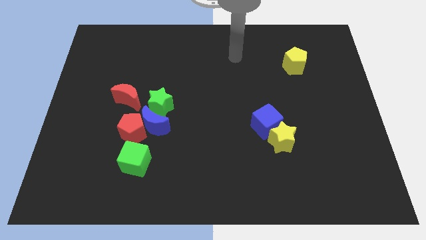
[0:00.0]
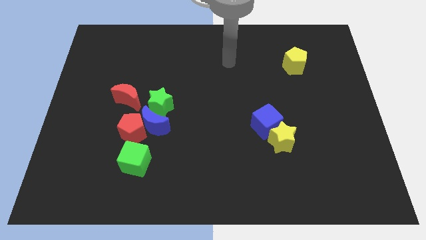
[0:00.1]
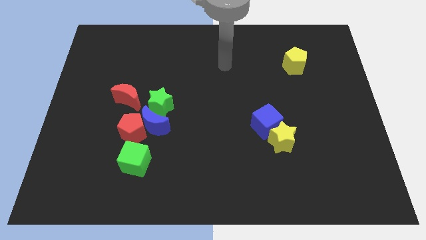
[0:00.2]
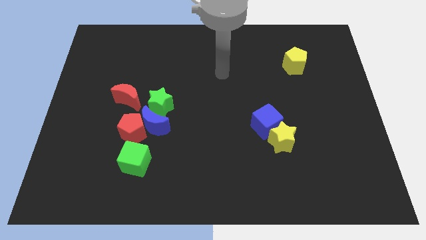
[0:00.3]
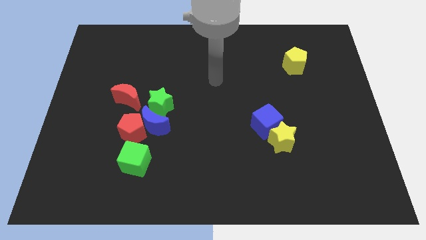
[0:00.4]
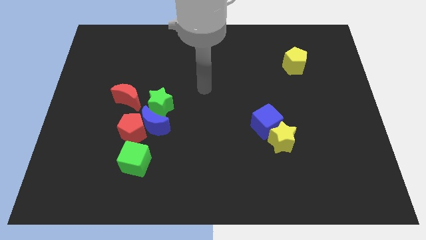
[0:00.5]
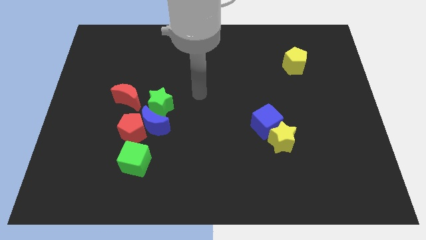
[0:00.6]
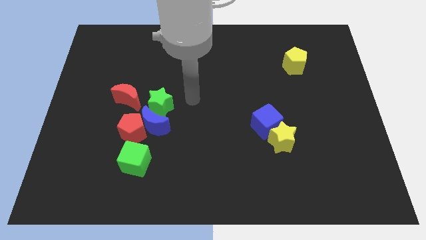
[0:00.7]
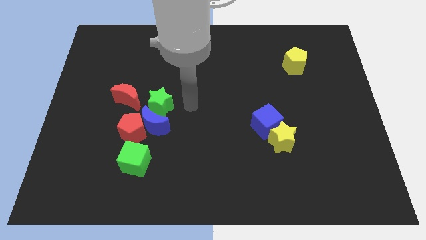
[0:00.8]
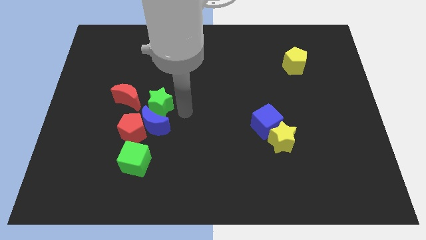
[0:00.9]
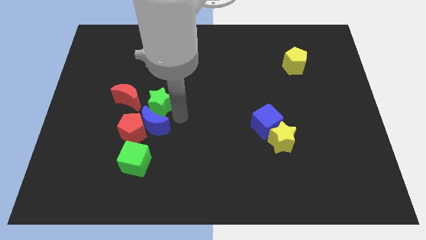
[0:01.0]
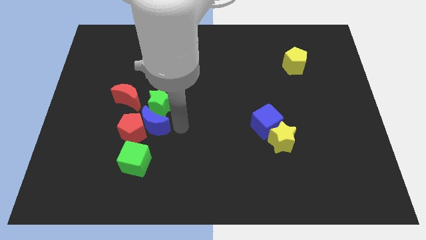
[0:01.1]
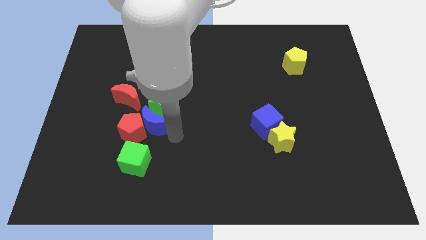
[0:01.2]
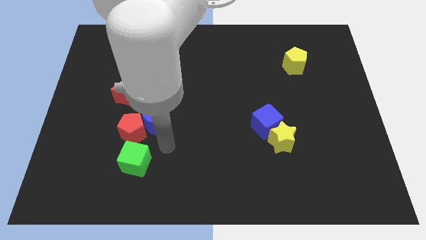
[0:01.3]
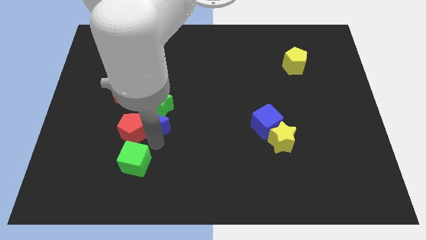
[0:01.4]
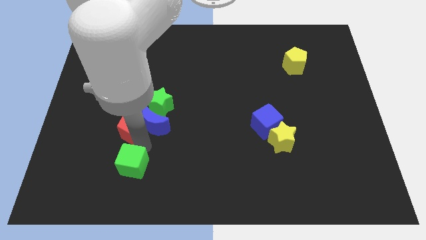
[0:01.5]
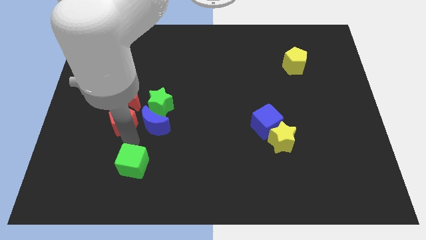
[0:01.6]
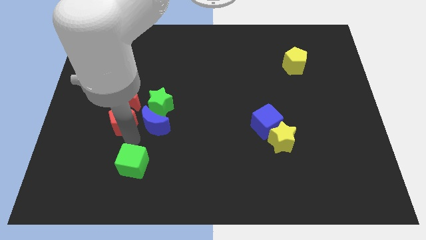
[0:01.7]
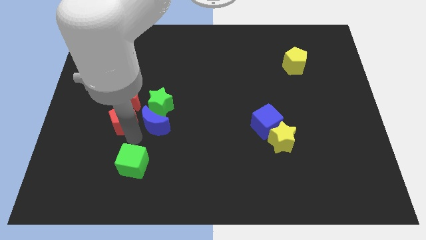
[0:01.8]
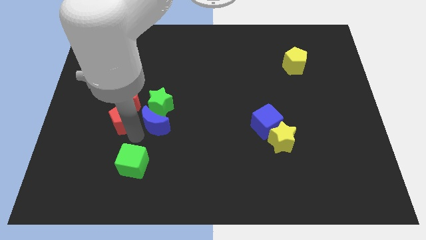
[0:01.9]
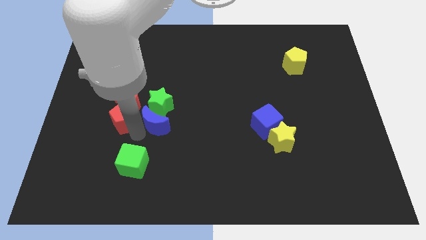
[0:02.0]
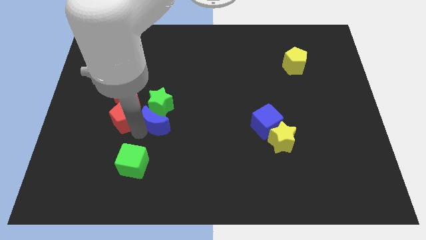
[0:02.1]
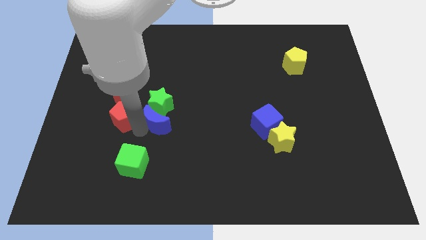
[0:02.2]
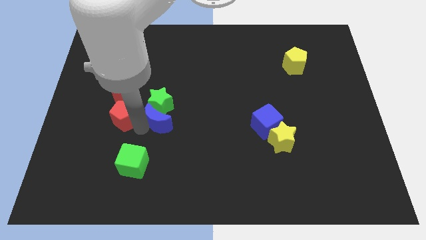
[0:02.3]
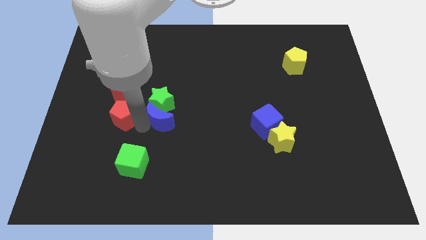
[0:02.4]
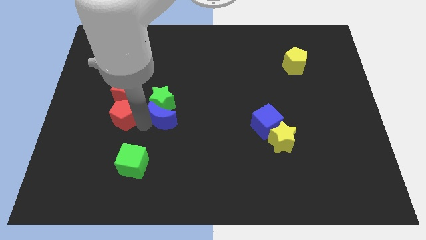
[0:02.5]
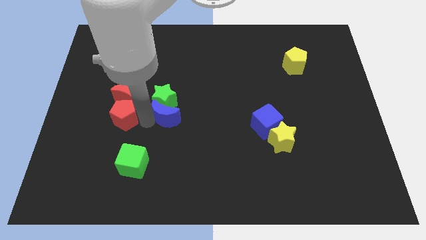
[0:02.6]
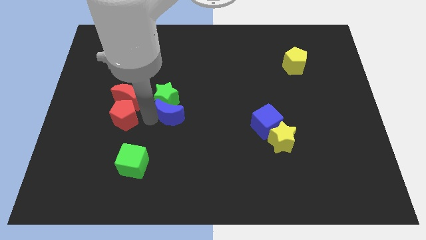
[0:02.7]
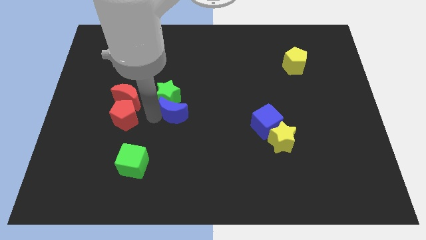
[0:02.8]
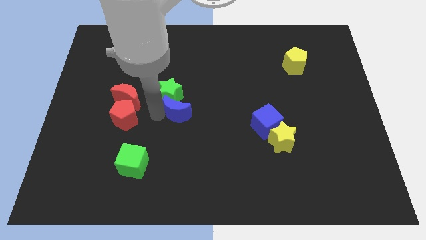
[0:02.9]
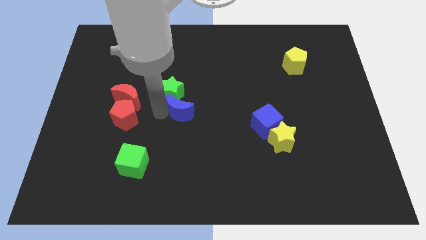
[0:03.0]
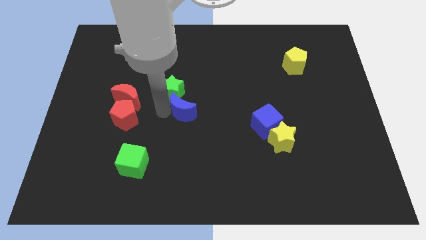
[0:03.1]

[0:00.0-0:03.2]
slightly push the blue moon upwards and to the right

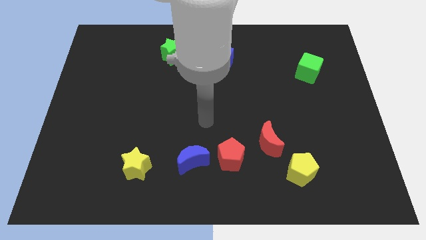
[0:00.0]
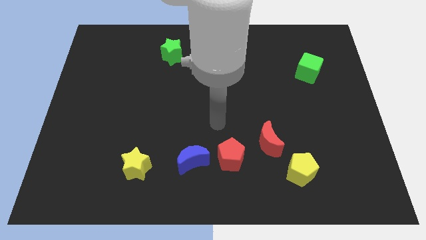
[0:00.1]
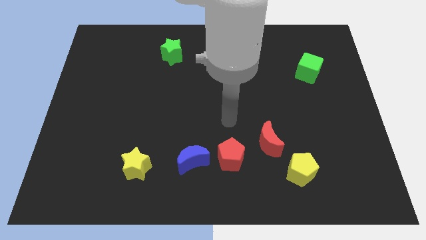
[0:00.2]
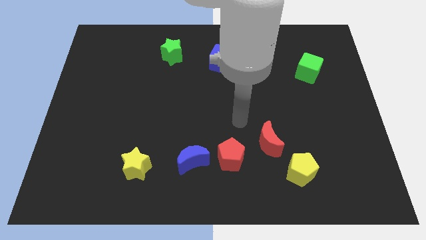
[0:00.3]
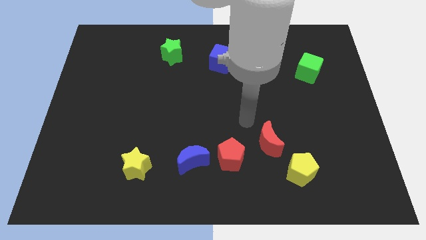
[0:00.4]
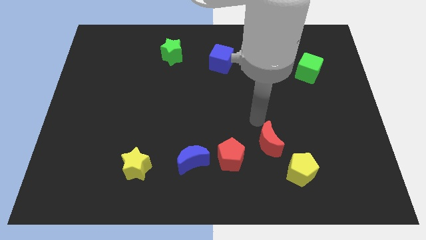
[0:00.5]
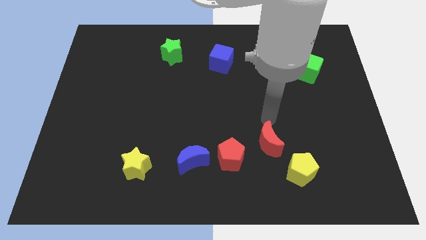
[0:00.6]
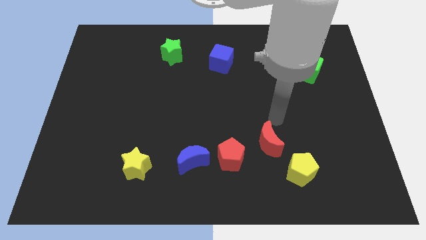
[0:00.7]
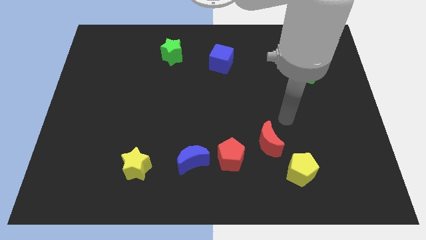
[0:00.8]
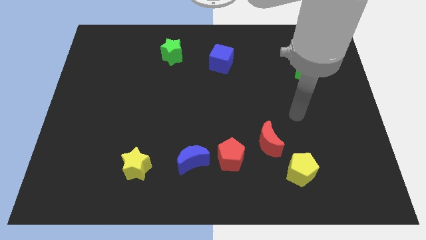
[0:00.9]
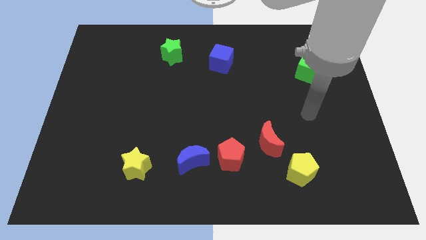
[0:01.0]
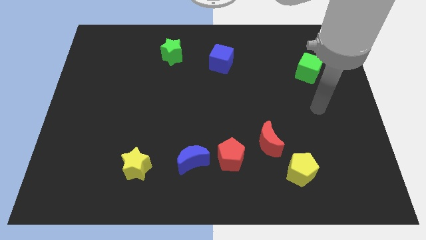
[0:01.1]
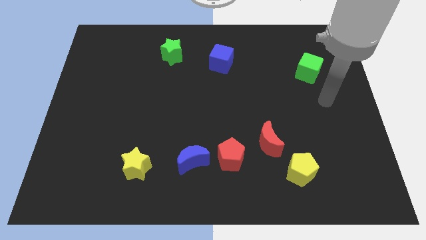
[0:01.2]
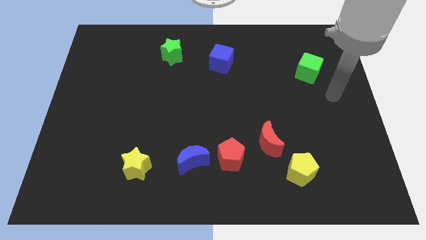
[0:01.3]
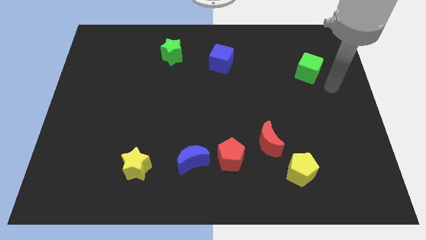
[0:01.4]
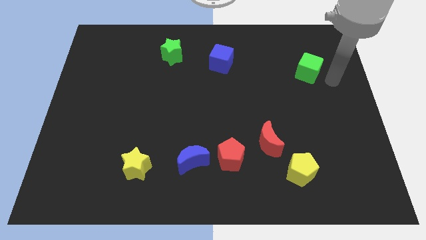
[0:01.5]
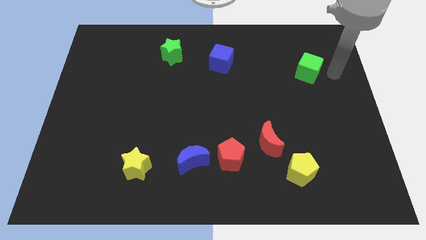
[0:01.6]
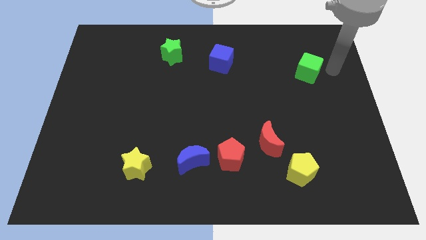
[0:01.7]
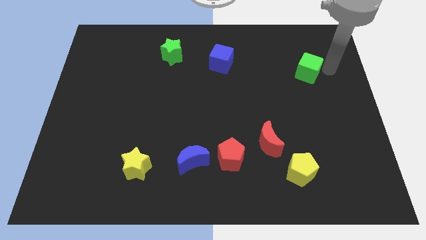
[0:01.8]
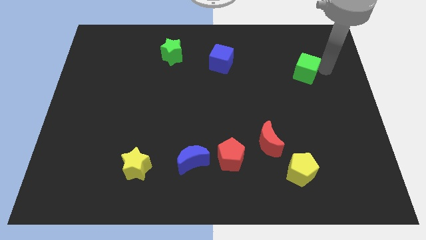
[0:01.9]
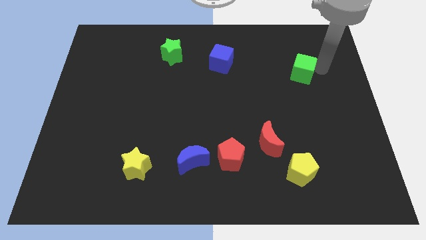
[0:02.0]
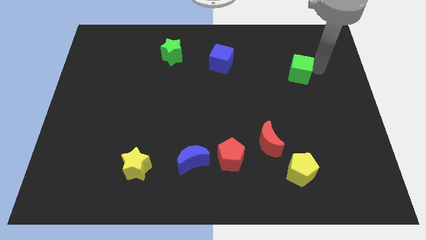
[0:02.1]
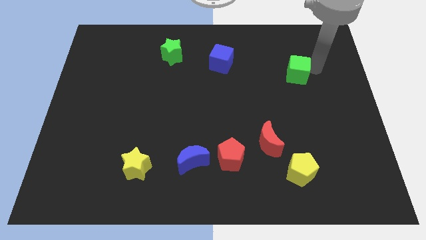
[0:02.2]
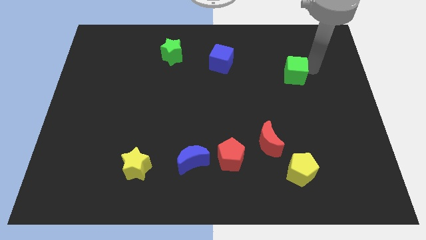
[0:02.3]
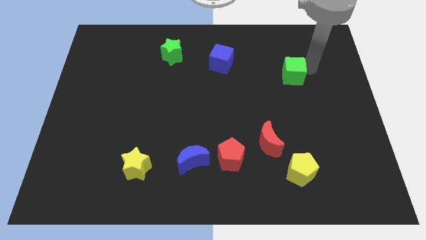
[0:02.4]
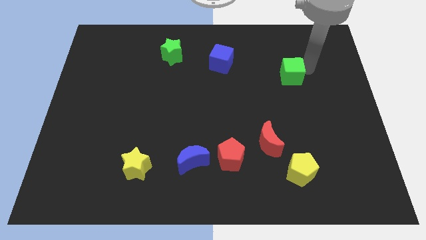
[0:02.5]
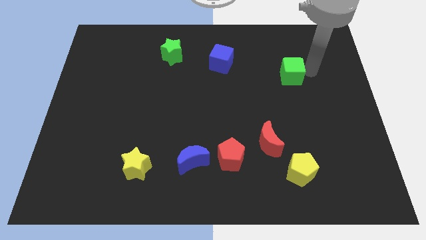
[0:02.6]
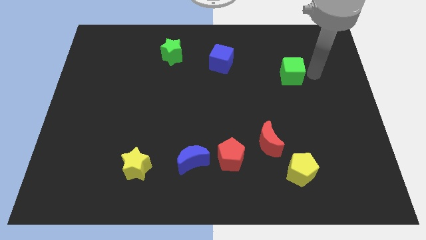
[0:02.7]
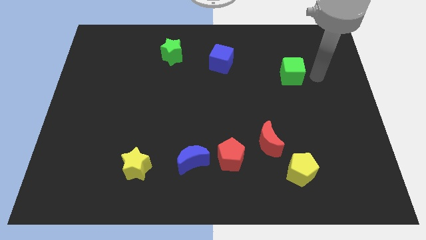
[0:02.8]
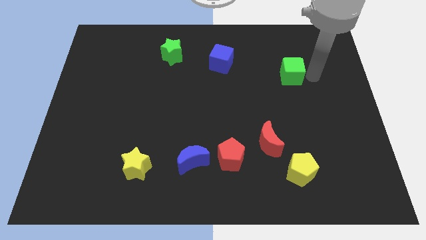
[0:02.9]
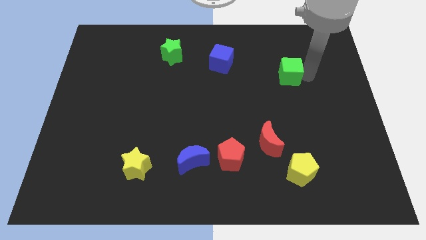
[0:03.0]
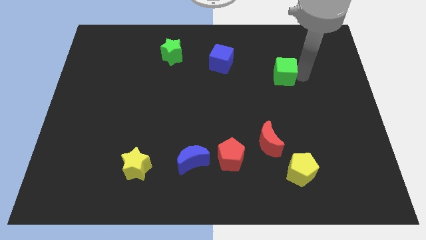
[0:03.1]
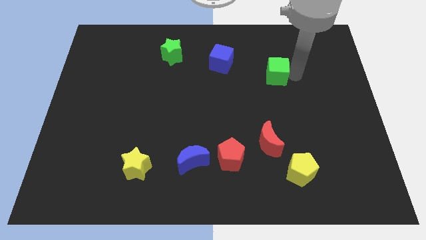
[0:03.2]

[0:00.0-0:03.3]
slide the green cube left a little bit

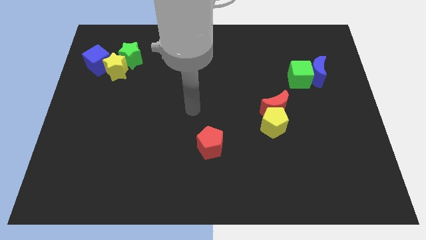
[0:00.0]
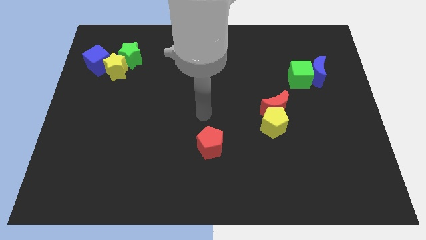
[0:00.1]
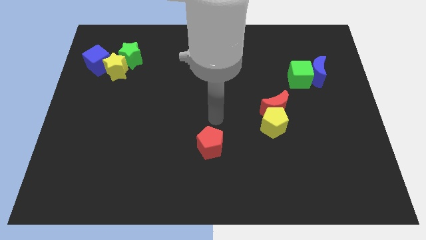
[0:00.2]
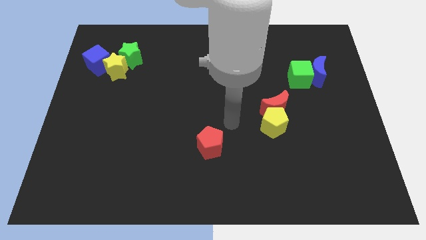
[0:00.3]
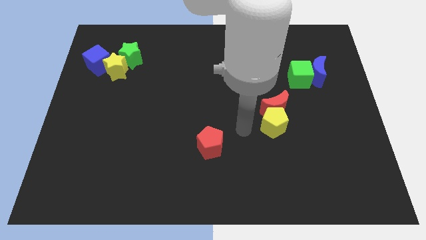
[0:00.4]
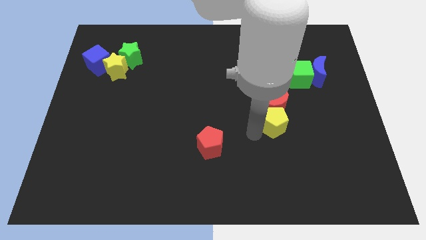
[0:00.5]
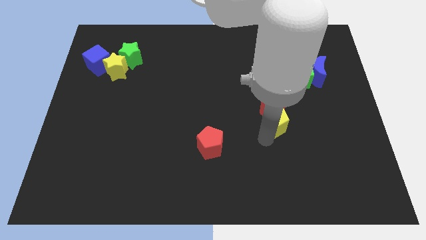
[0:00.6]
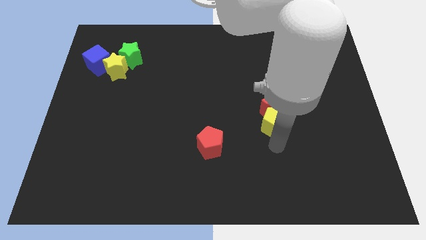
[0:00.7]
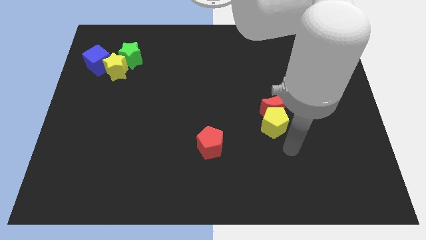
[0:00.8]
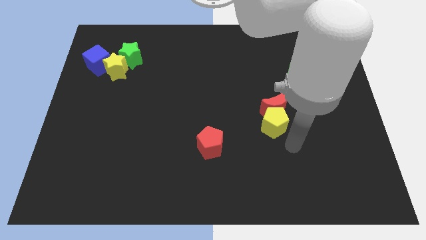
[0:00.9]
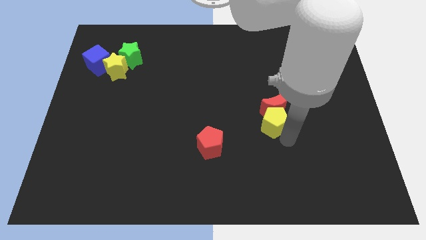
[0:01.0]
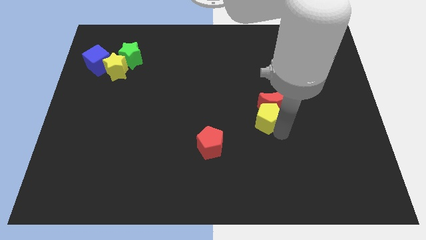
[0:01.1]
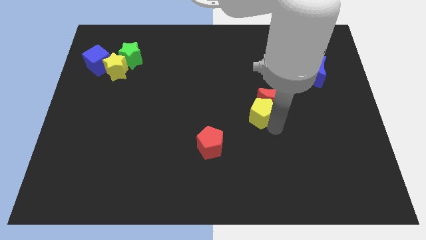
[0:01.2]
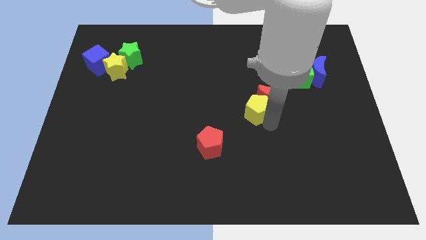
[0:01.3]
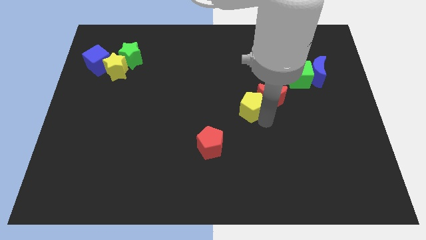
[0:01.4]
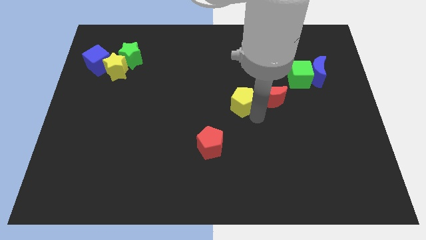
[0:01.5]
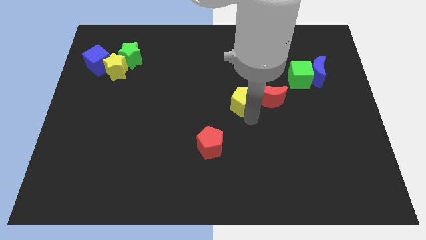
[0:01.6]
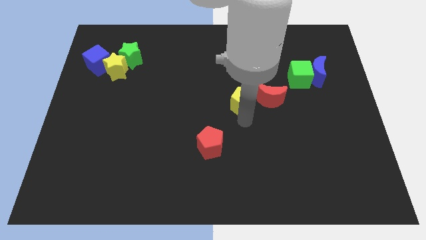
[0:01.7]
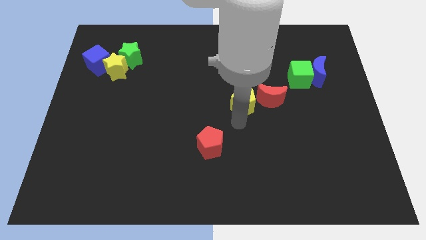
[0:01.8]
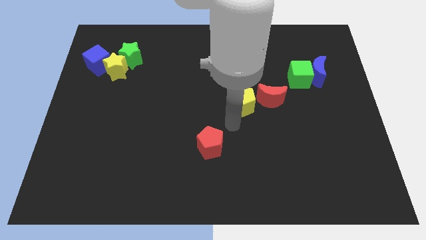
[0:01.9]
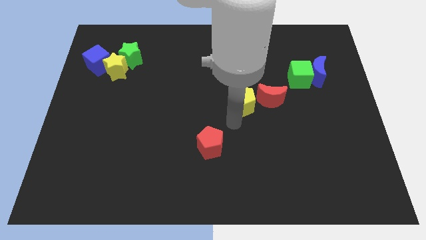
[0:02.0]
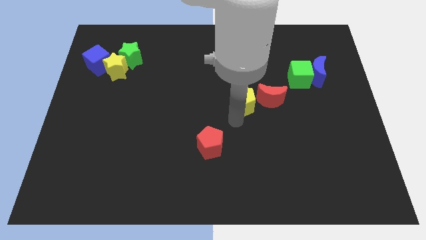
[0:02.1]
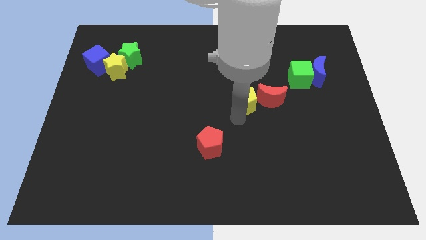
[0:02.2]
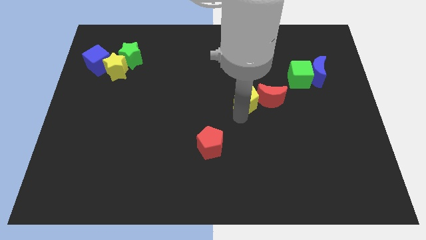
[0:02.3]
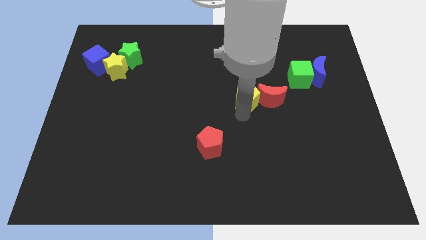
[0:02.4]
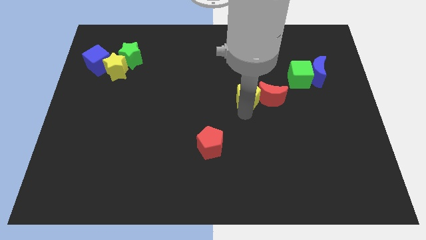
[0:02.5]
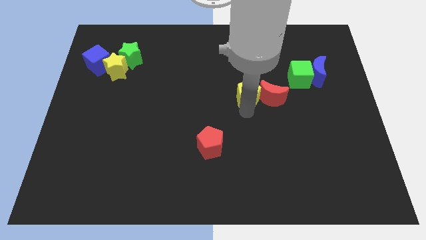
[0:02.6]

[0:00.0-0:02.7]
slide the yellow pentagon somewhat up
